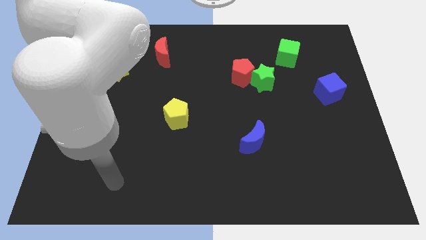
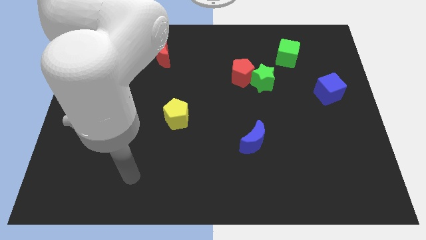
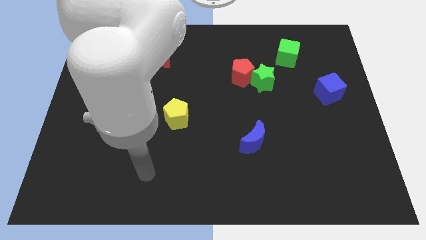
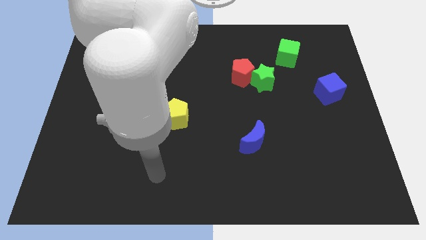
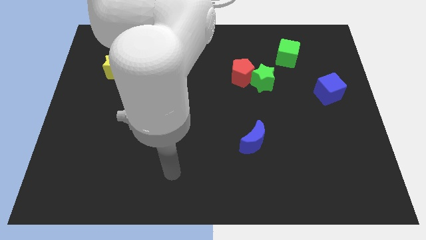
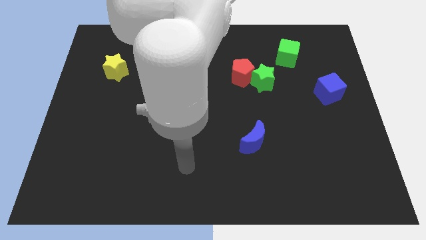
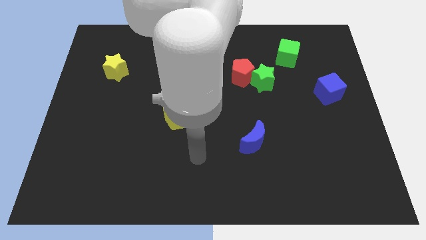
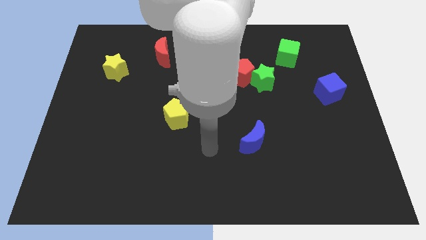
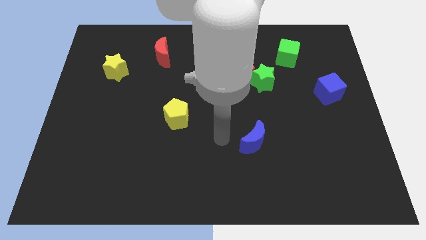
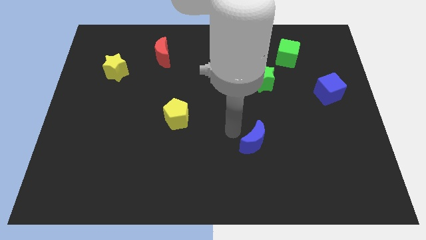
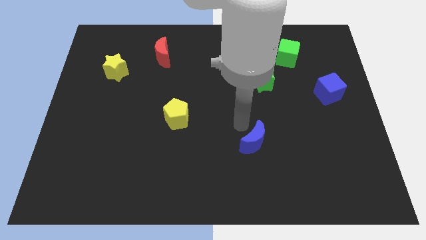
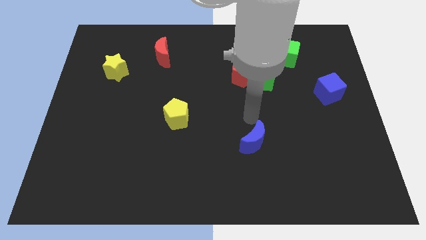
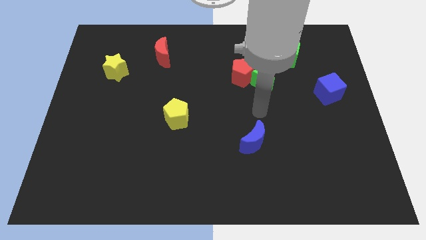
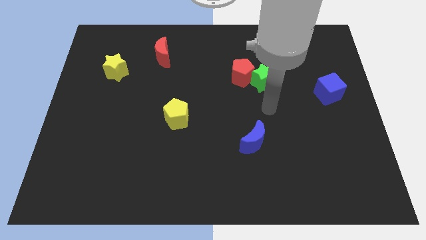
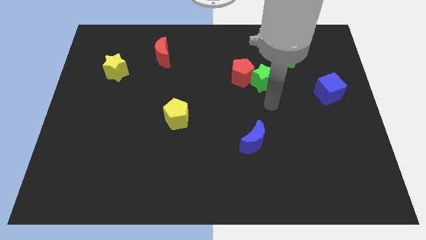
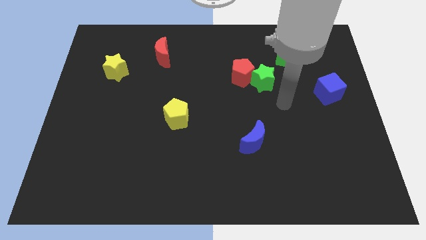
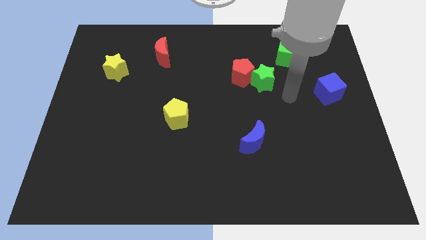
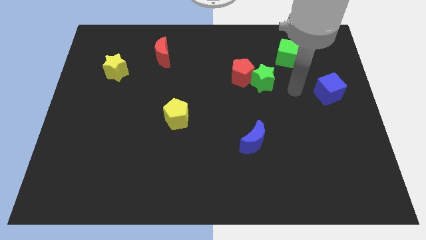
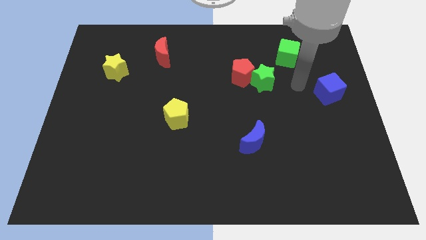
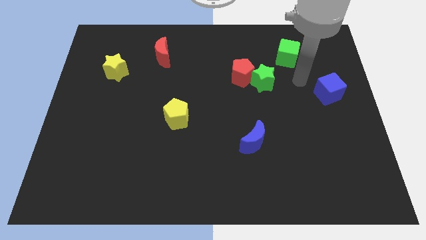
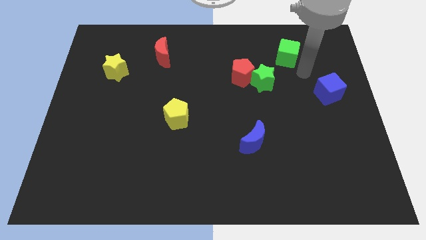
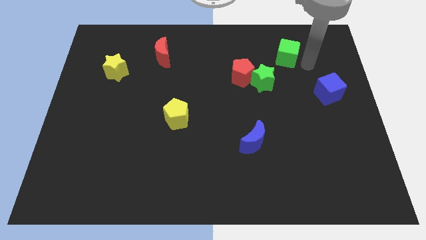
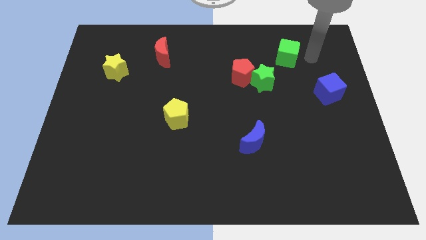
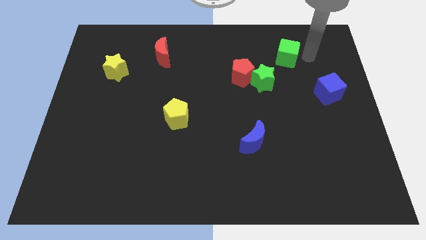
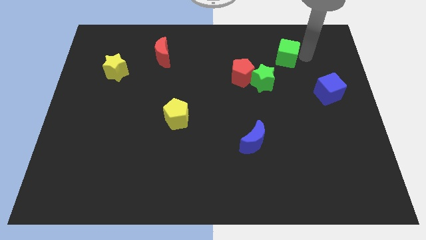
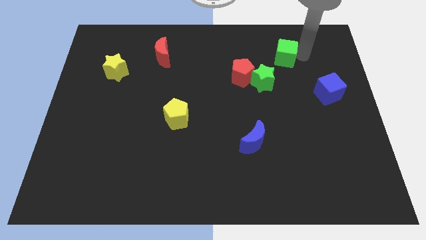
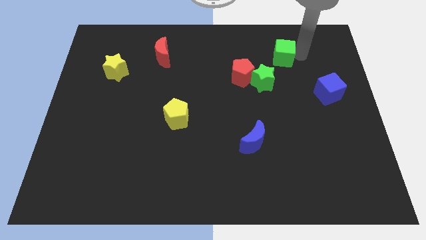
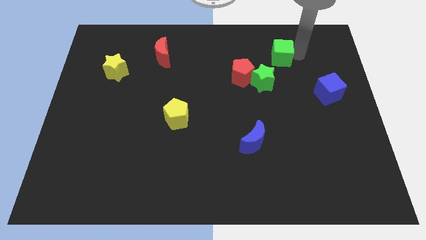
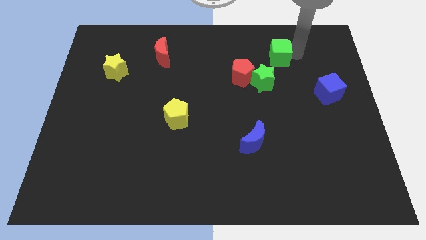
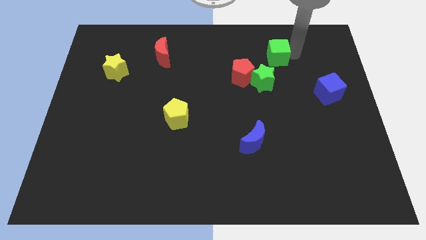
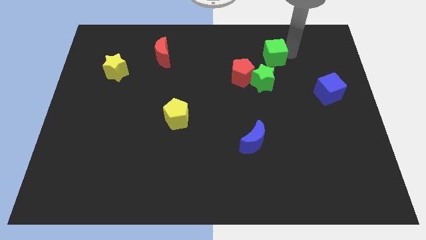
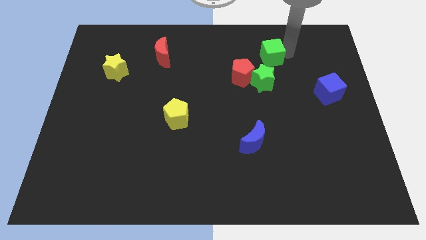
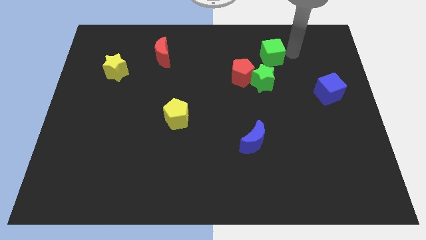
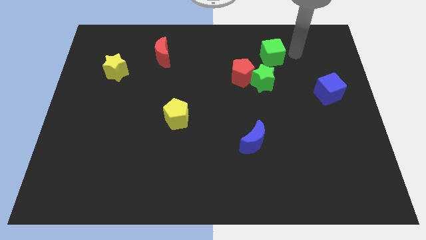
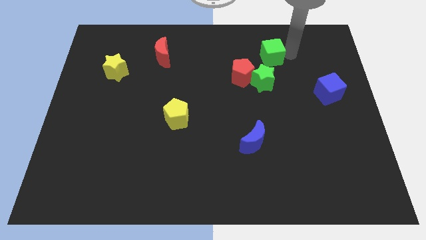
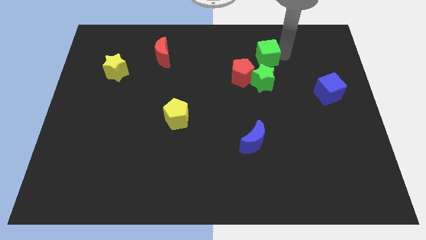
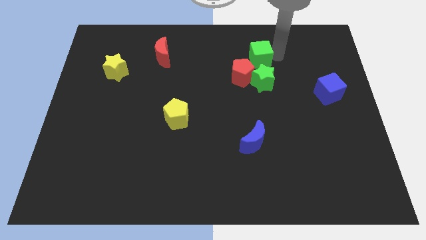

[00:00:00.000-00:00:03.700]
slightly move the green cube left

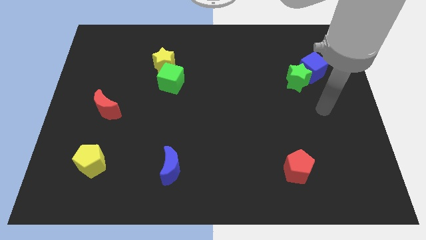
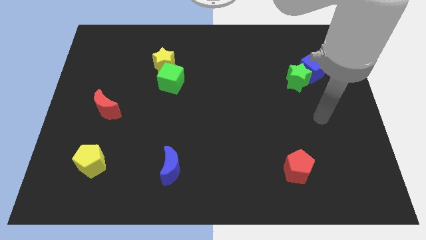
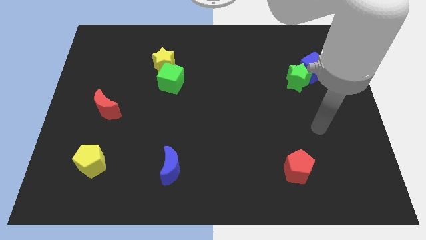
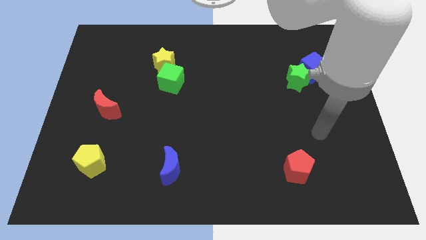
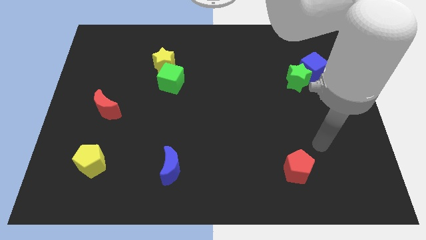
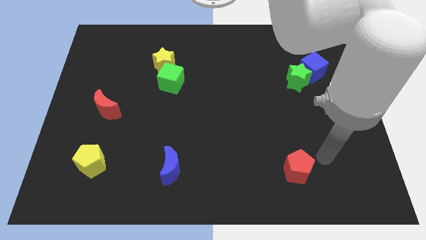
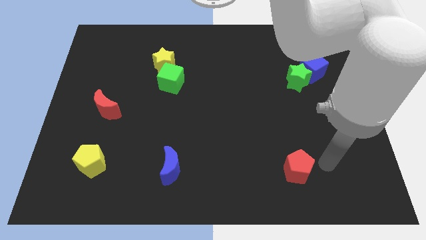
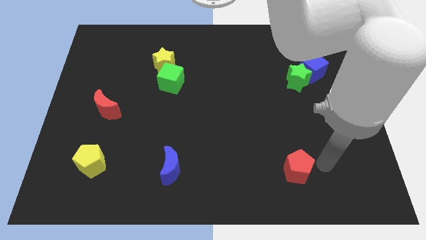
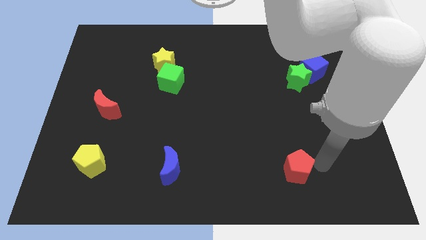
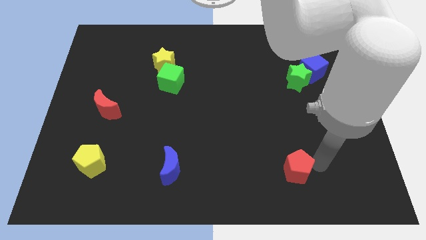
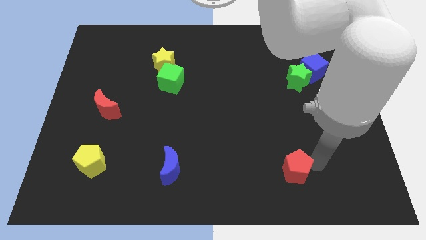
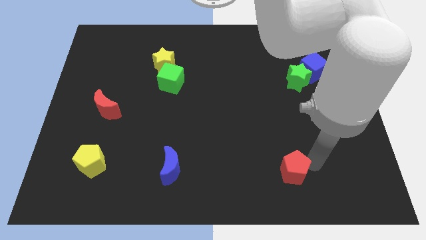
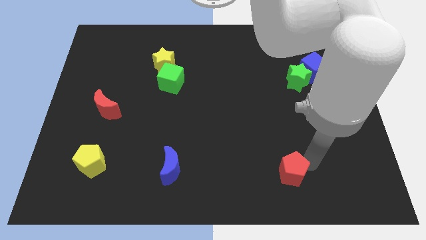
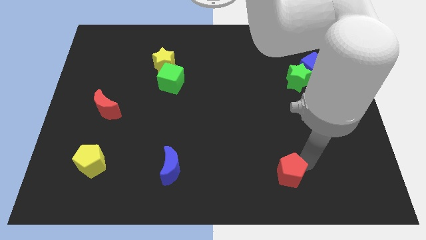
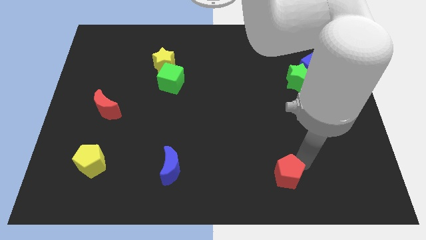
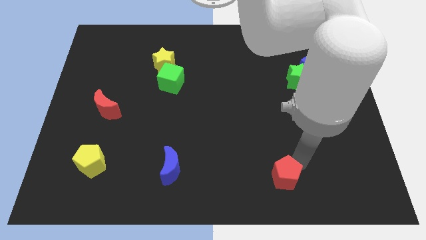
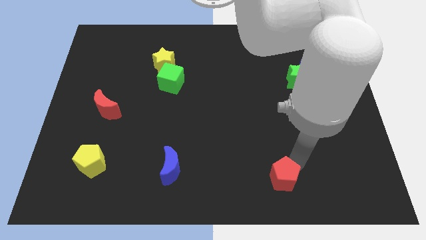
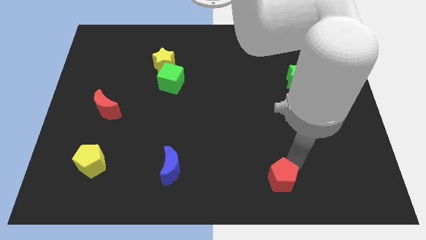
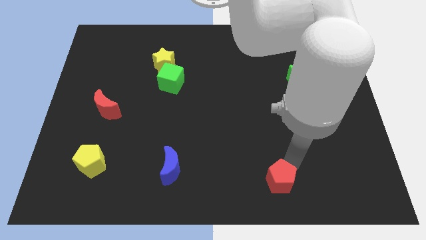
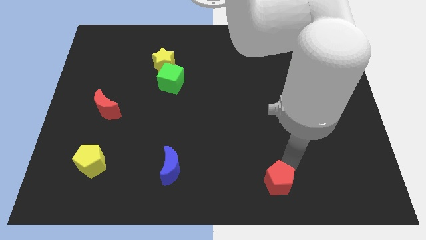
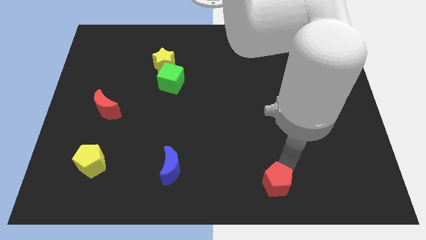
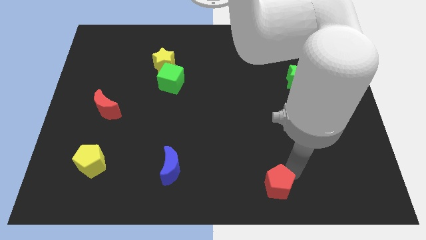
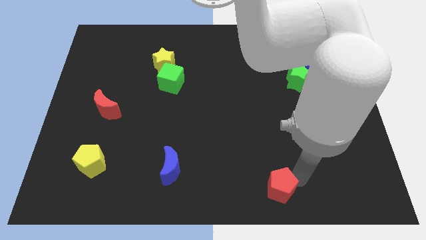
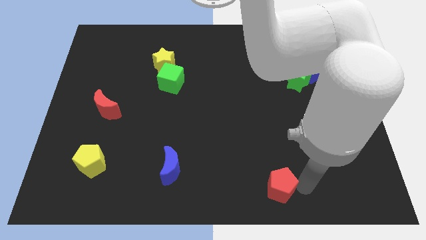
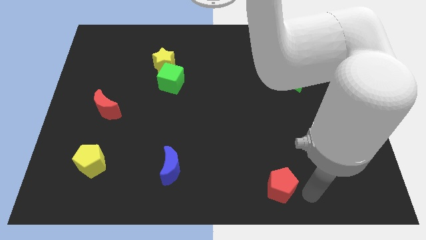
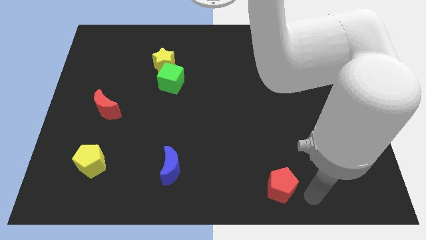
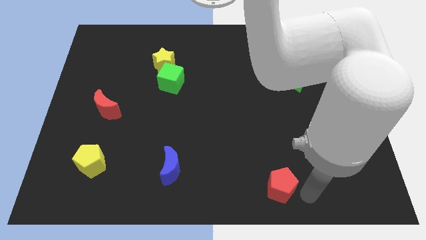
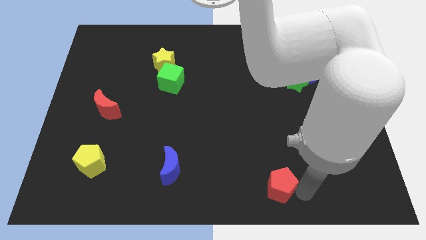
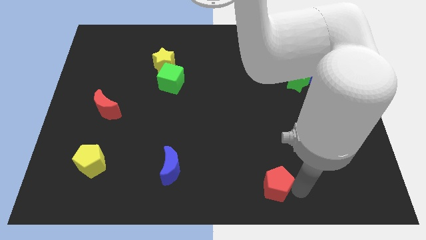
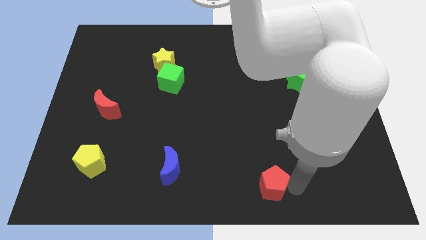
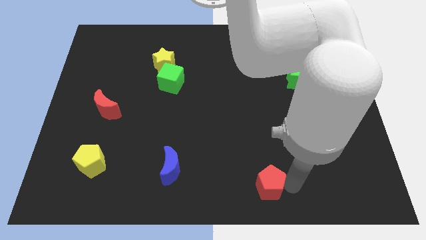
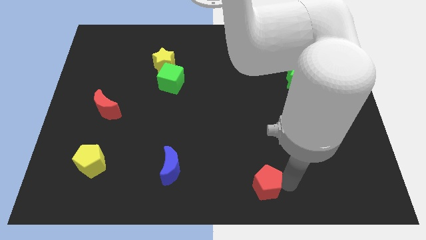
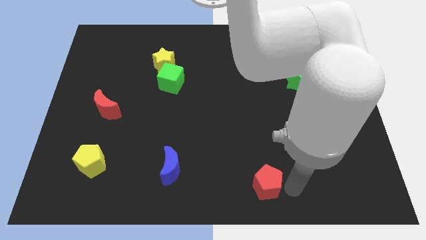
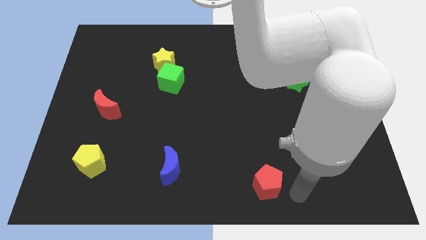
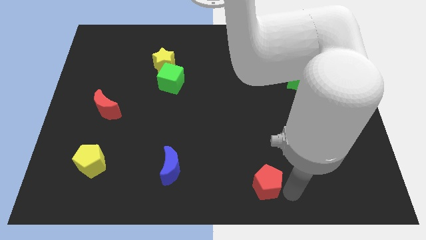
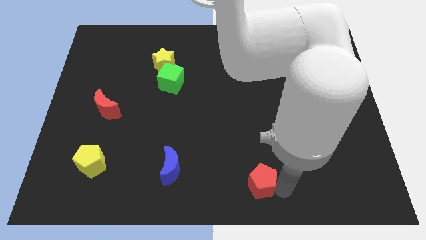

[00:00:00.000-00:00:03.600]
slightly push the red pentagon left

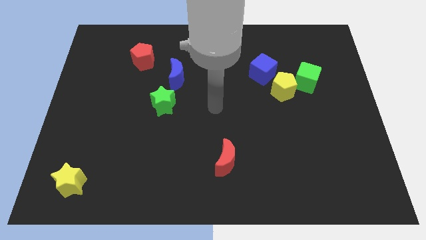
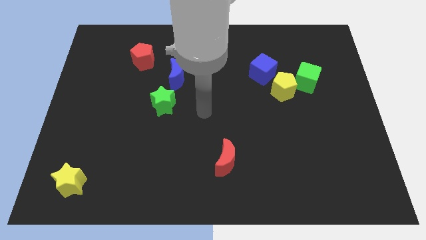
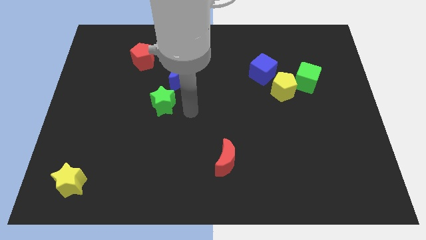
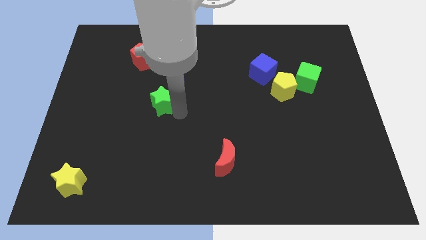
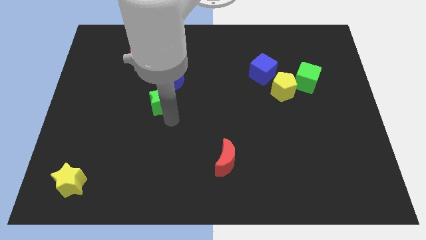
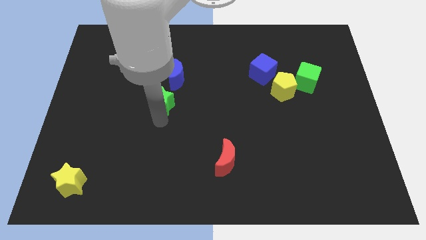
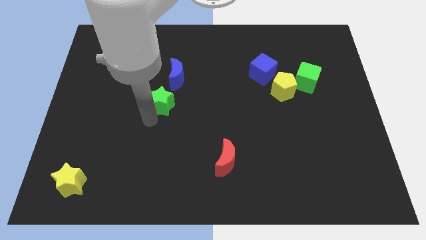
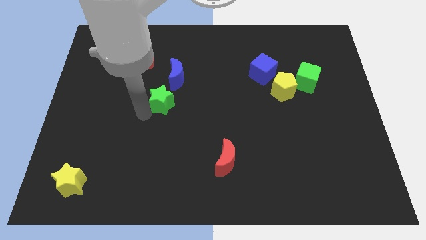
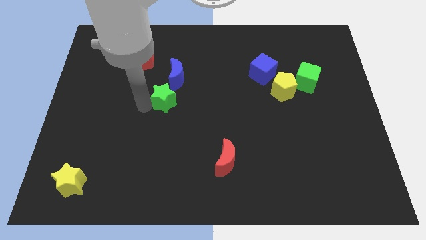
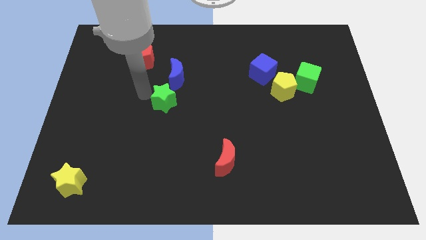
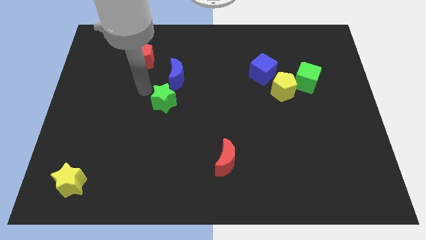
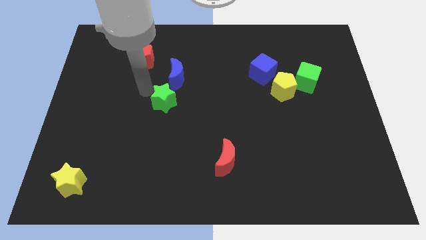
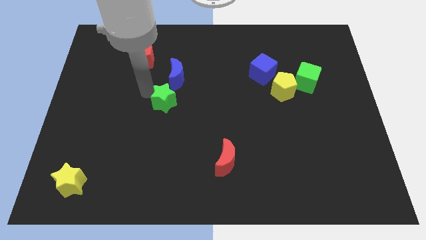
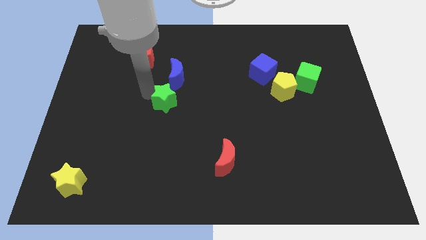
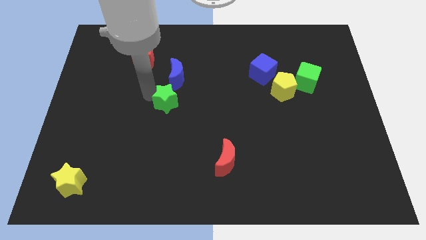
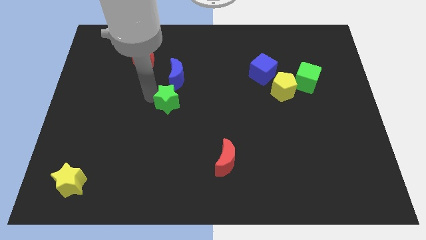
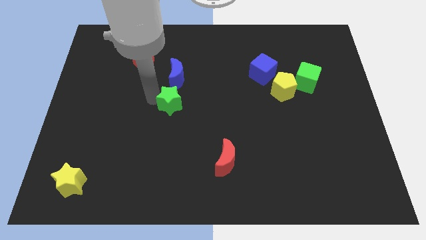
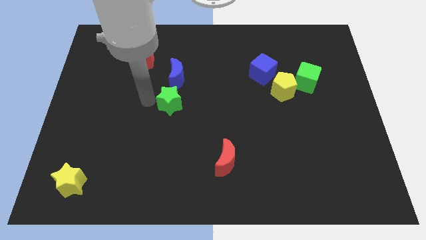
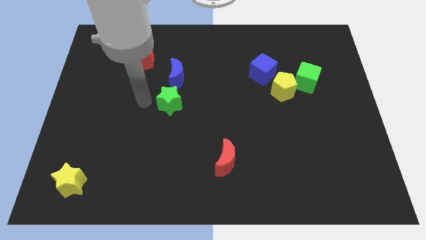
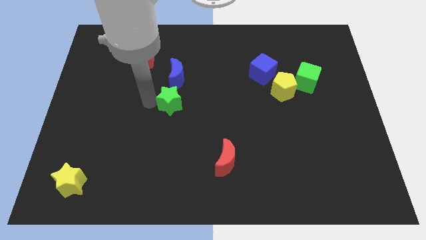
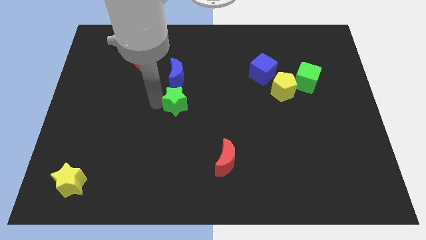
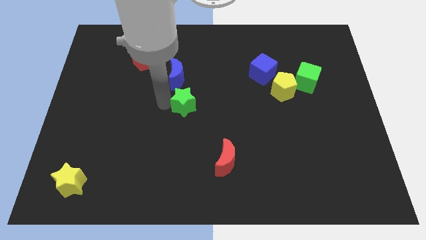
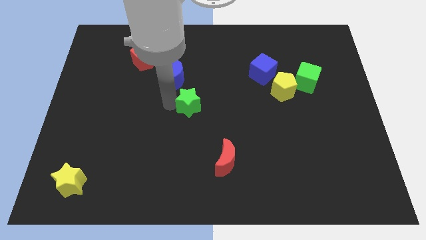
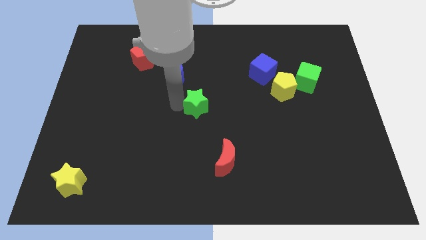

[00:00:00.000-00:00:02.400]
slide the green star slightly to the right
